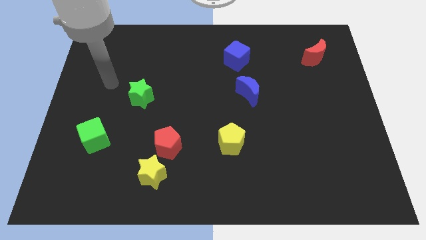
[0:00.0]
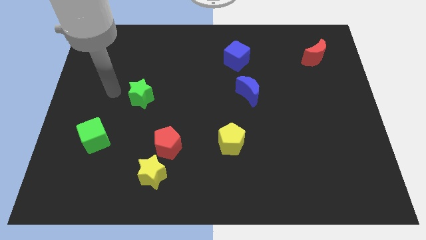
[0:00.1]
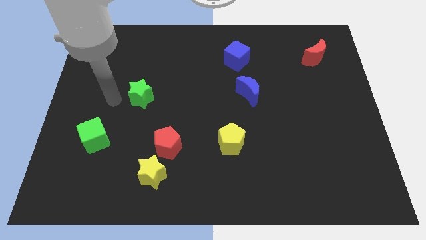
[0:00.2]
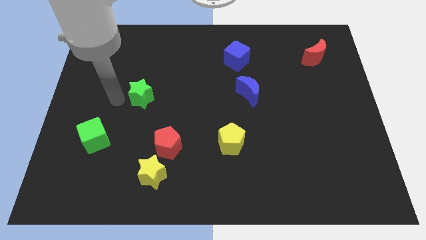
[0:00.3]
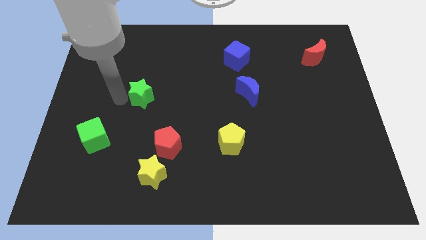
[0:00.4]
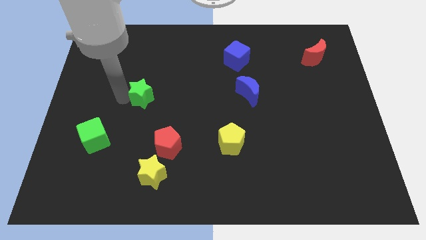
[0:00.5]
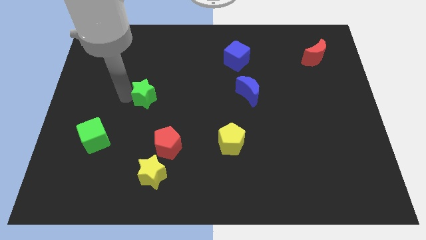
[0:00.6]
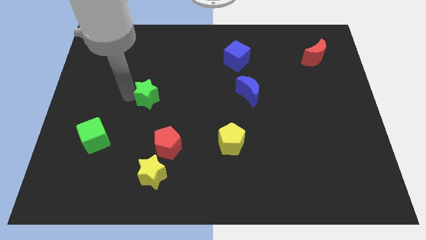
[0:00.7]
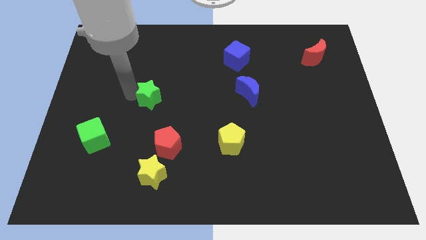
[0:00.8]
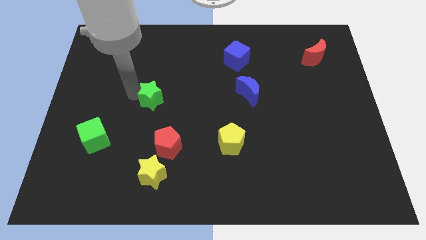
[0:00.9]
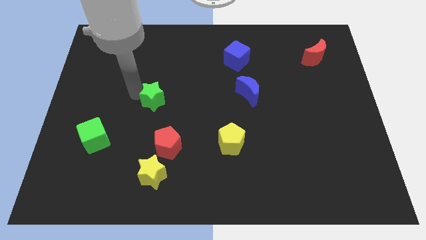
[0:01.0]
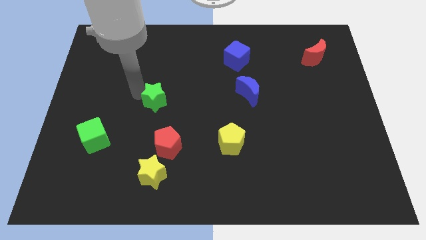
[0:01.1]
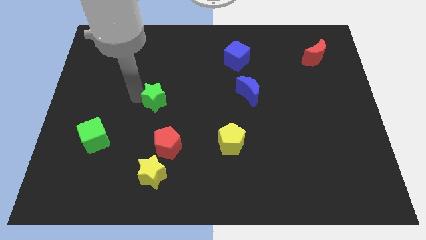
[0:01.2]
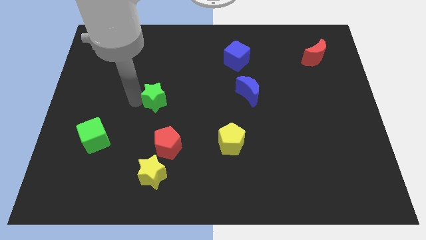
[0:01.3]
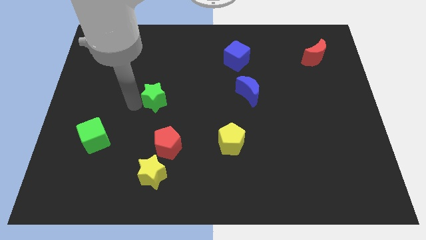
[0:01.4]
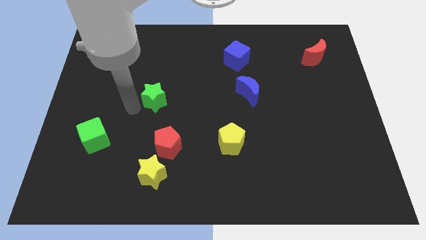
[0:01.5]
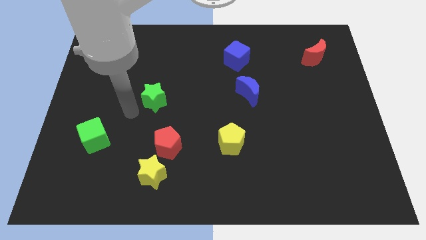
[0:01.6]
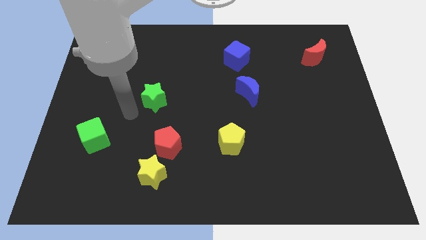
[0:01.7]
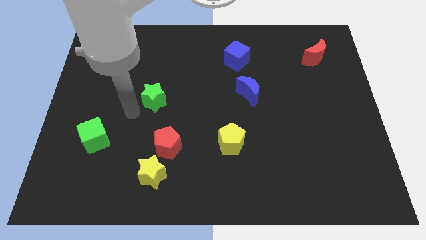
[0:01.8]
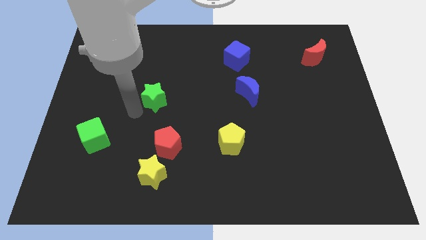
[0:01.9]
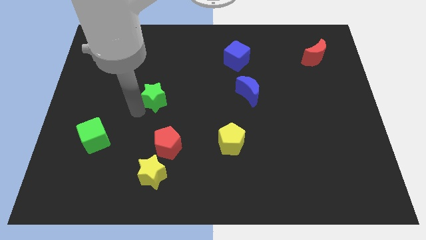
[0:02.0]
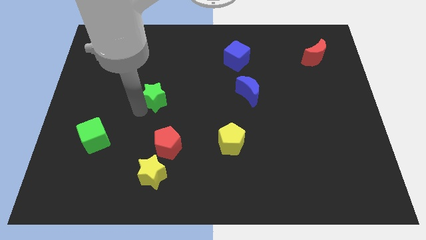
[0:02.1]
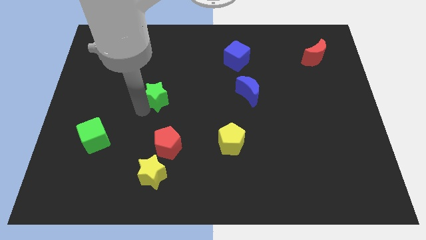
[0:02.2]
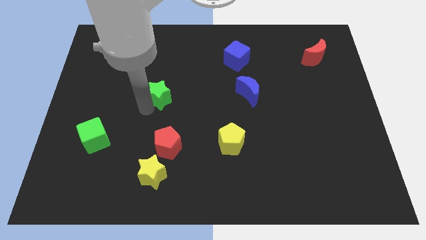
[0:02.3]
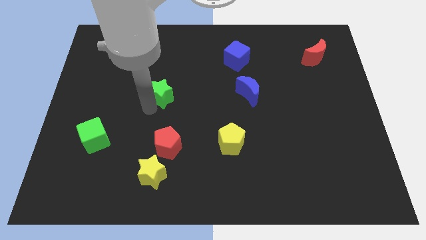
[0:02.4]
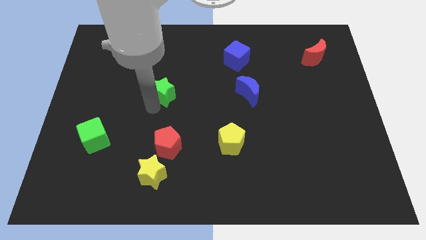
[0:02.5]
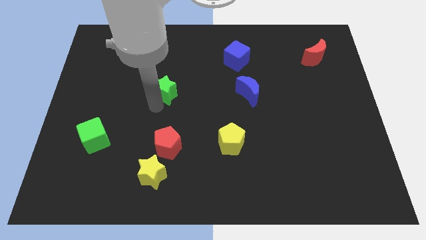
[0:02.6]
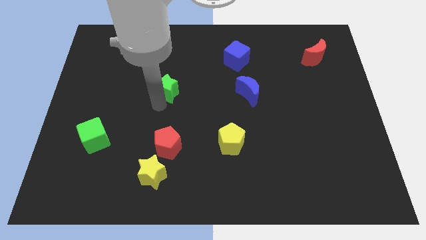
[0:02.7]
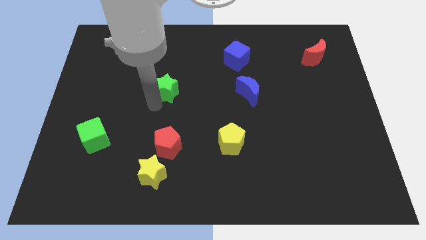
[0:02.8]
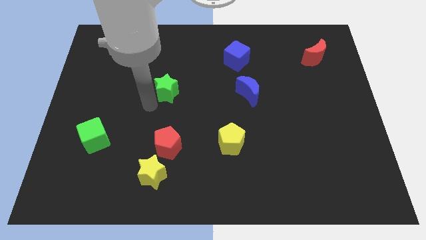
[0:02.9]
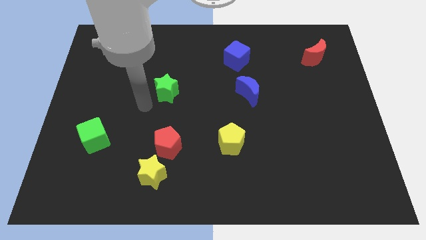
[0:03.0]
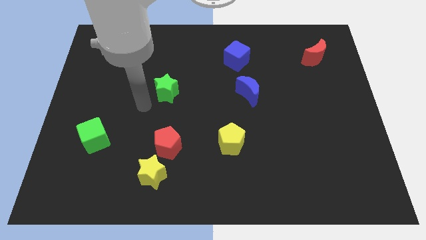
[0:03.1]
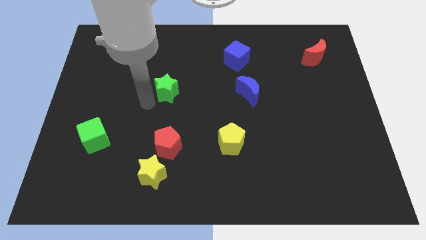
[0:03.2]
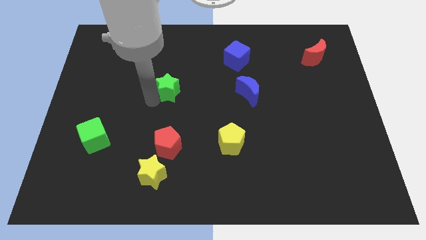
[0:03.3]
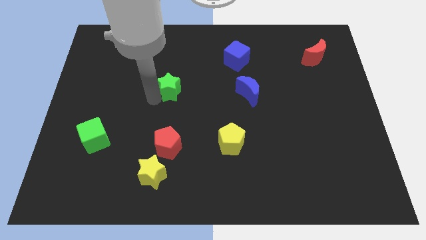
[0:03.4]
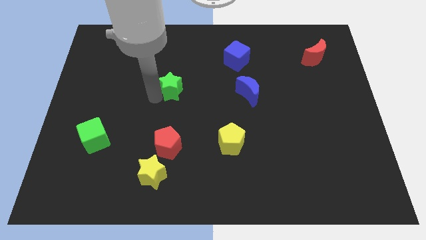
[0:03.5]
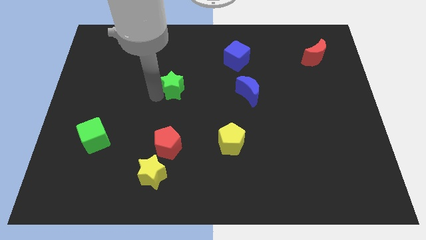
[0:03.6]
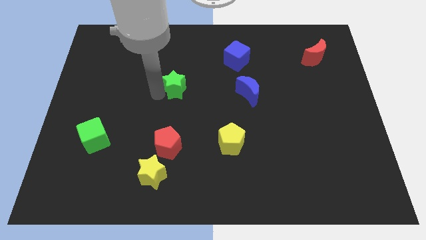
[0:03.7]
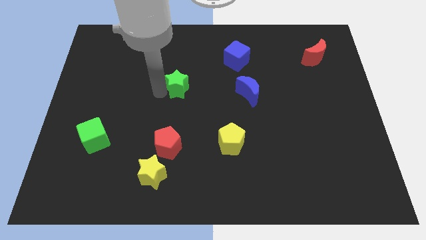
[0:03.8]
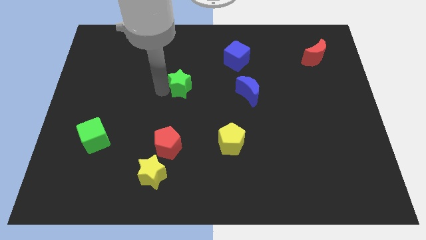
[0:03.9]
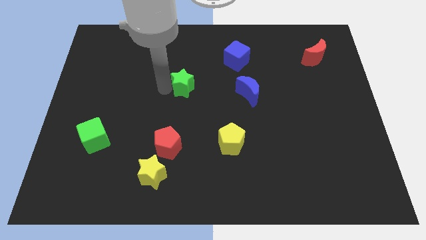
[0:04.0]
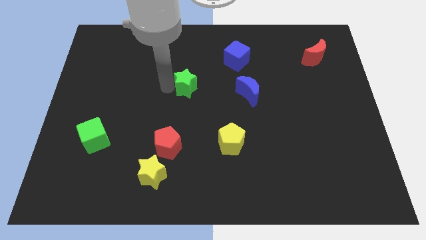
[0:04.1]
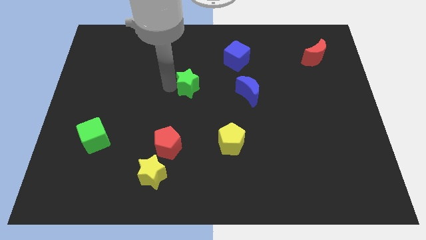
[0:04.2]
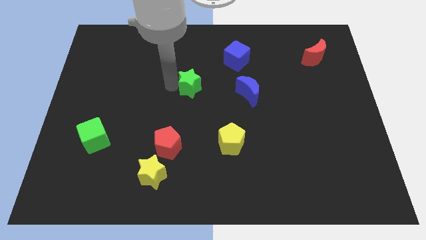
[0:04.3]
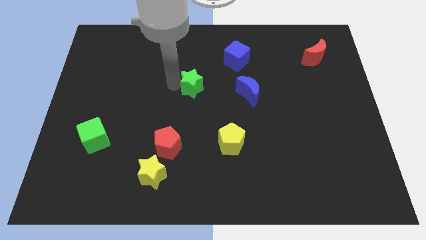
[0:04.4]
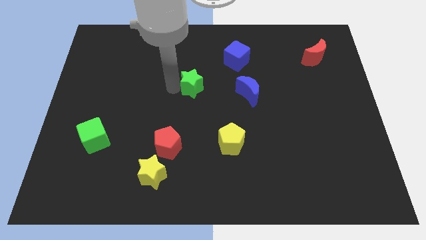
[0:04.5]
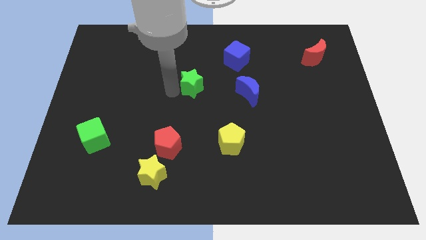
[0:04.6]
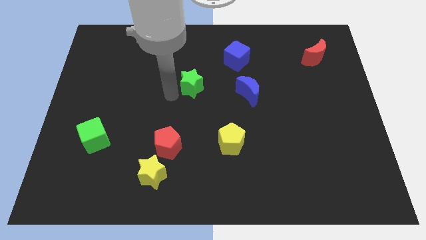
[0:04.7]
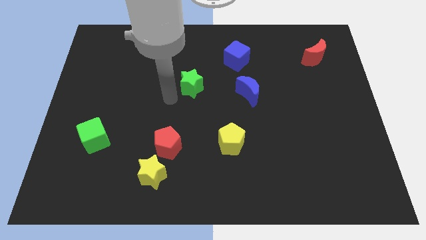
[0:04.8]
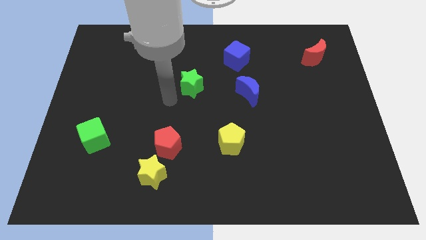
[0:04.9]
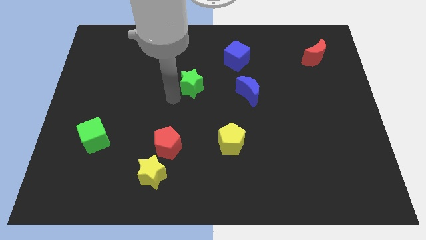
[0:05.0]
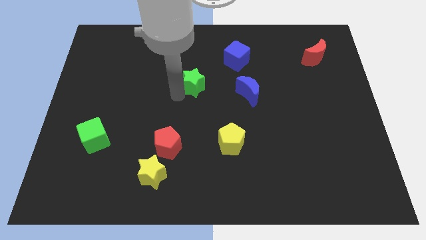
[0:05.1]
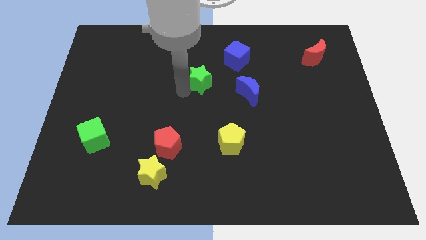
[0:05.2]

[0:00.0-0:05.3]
put the green star to the bottom left side of the blue cube

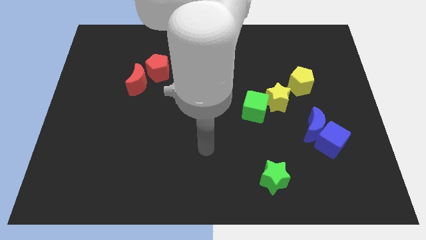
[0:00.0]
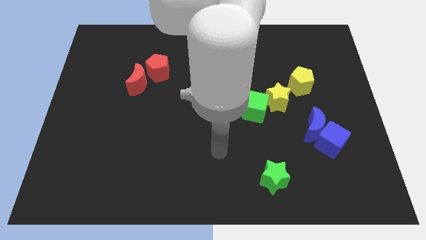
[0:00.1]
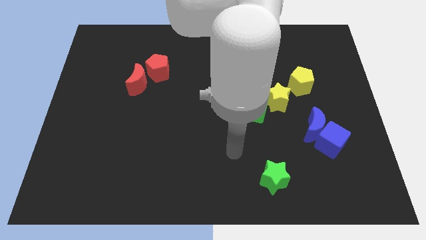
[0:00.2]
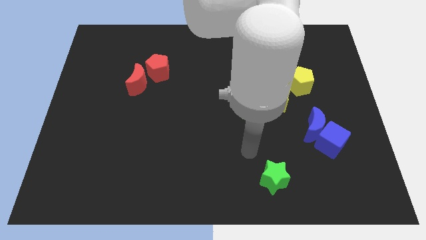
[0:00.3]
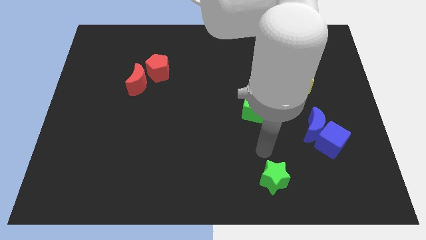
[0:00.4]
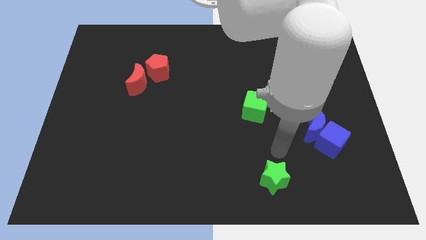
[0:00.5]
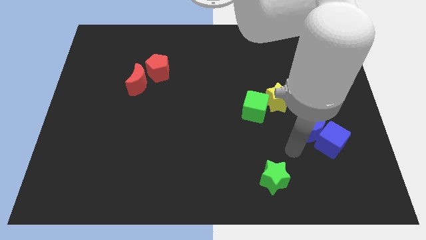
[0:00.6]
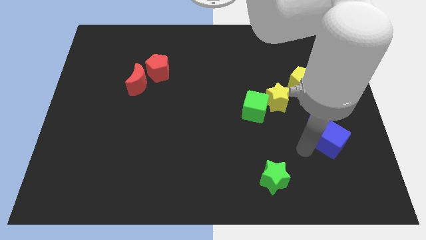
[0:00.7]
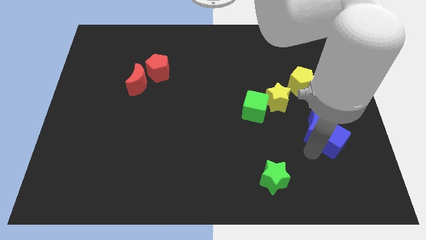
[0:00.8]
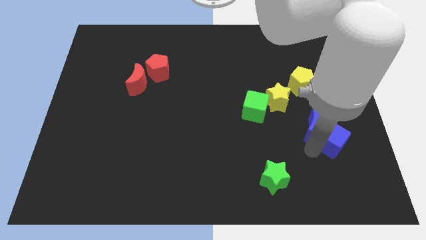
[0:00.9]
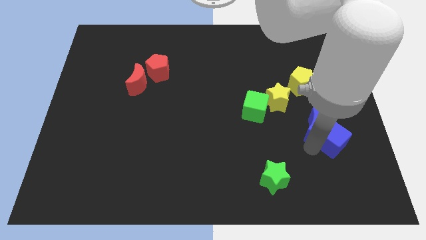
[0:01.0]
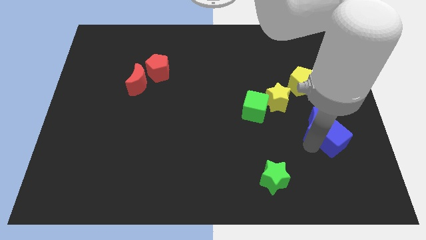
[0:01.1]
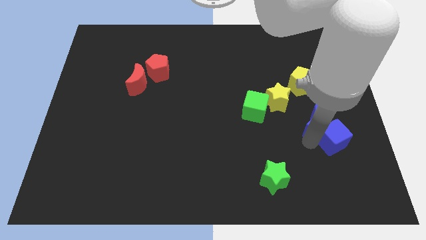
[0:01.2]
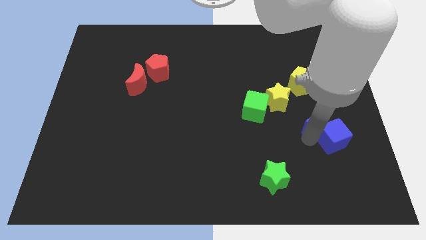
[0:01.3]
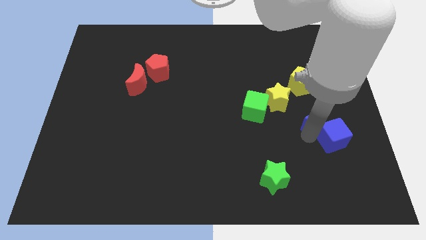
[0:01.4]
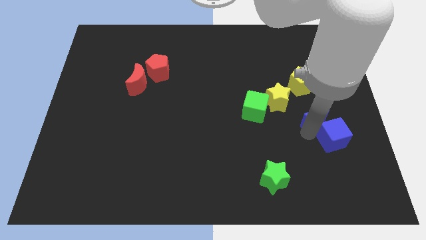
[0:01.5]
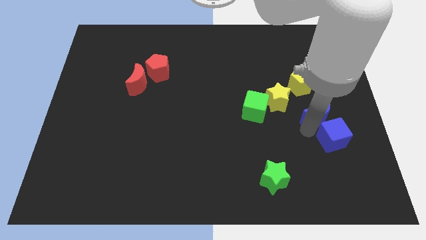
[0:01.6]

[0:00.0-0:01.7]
move the blue moon to the right side of the yellow star

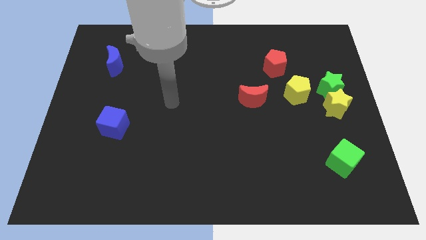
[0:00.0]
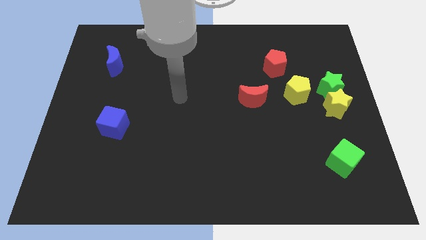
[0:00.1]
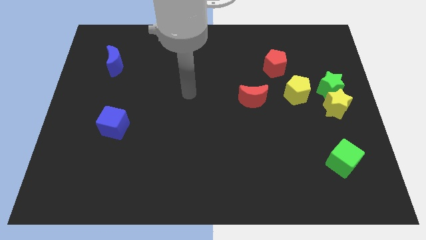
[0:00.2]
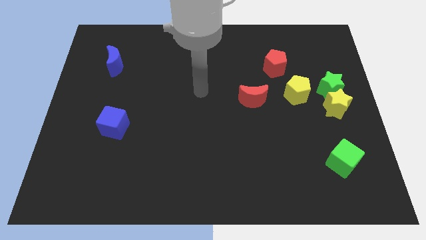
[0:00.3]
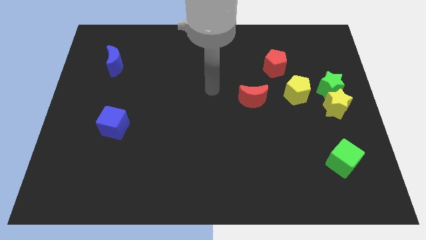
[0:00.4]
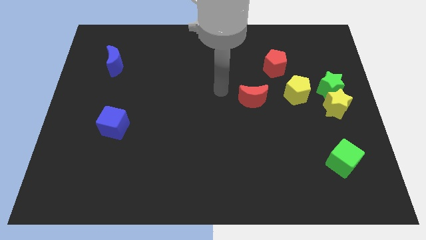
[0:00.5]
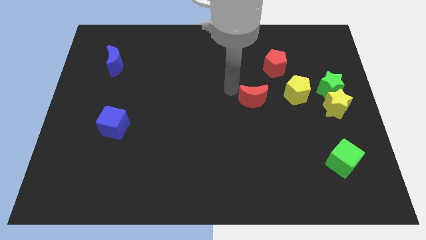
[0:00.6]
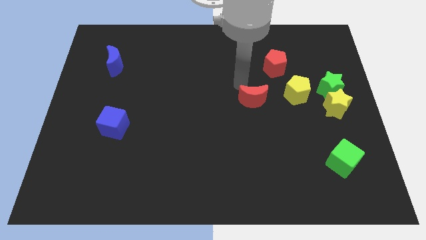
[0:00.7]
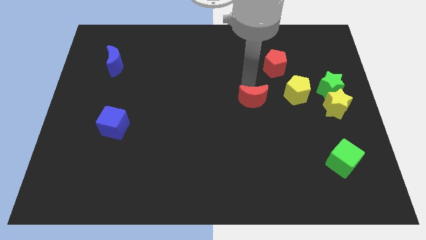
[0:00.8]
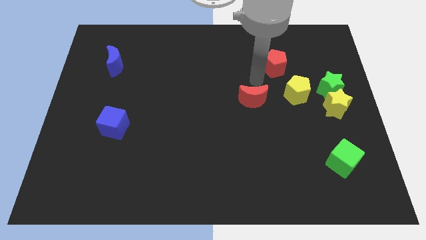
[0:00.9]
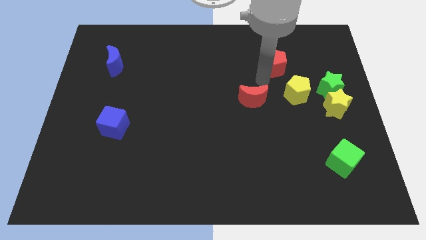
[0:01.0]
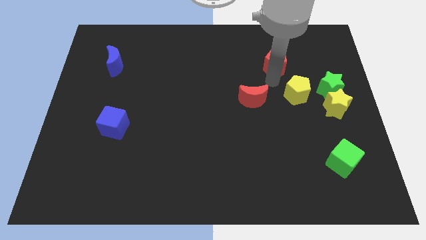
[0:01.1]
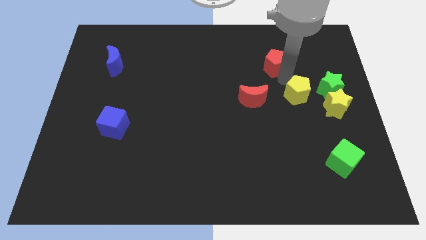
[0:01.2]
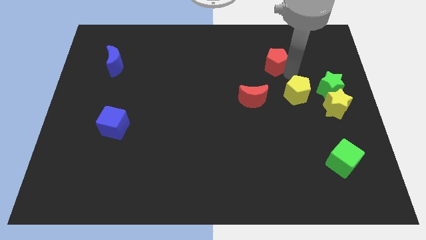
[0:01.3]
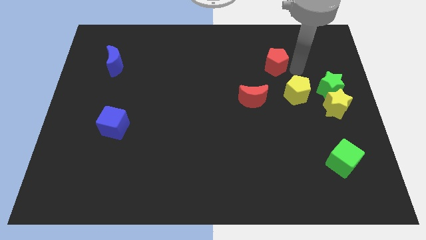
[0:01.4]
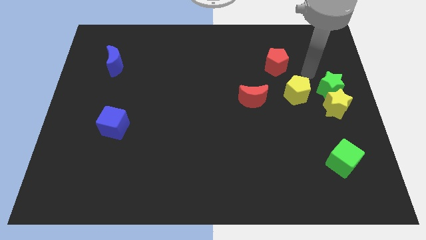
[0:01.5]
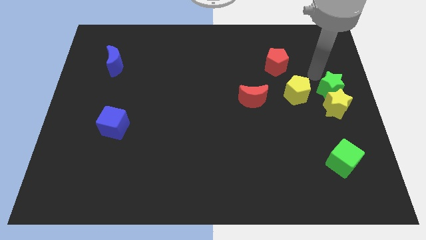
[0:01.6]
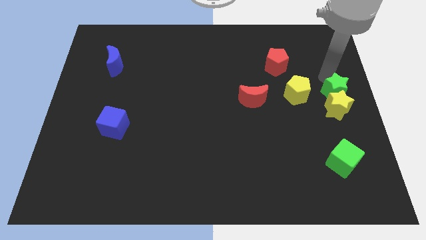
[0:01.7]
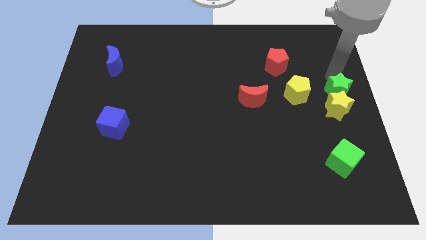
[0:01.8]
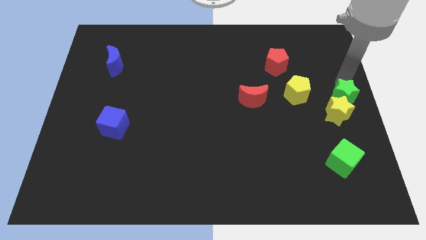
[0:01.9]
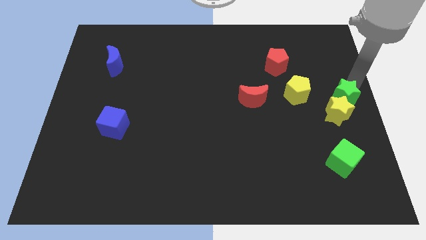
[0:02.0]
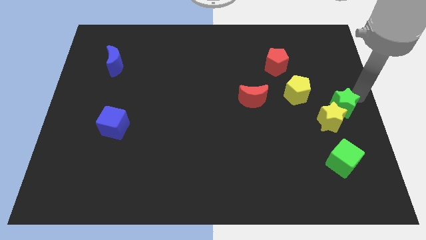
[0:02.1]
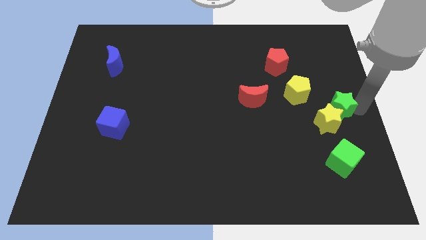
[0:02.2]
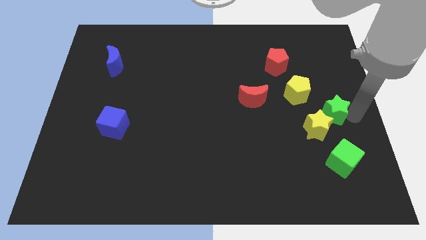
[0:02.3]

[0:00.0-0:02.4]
move the yellow star below the yellow pentagon
